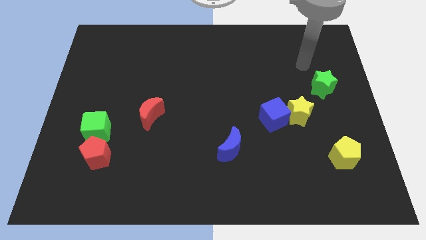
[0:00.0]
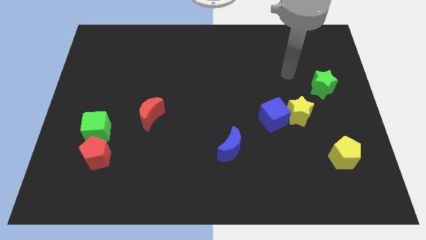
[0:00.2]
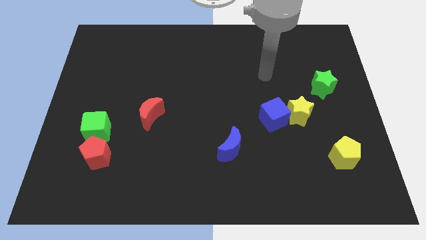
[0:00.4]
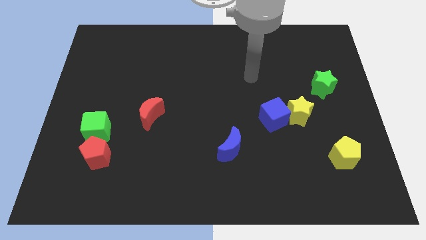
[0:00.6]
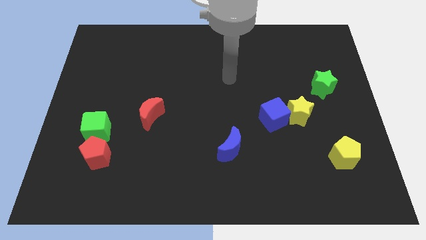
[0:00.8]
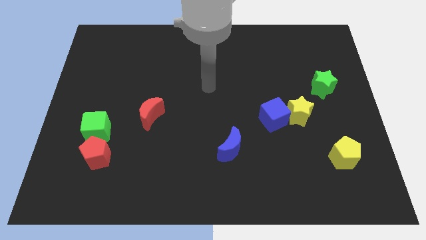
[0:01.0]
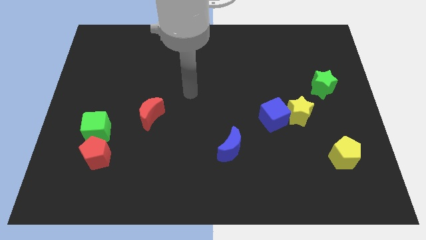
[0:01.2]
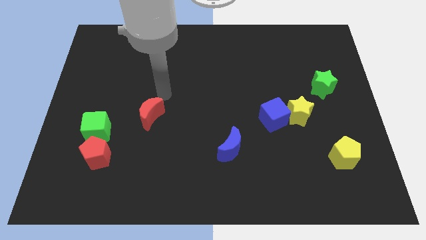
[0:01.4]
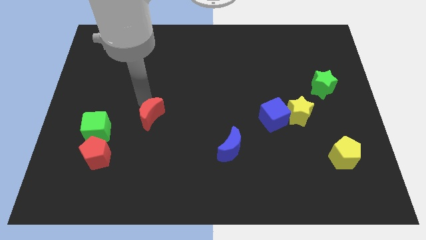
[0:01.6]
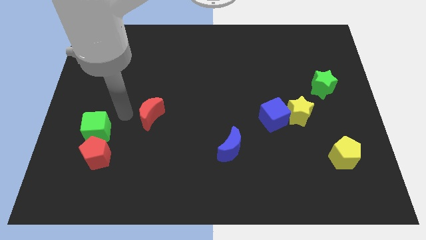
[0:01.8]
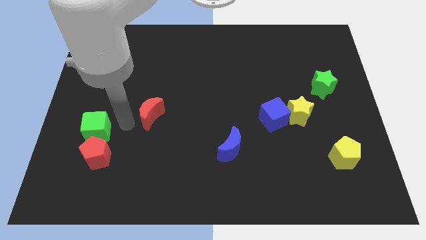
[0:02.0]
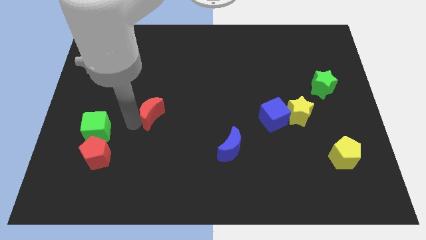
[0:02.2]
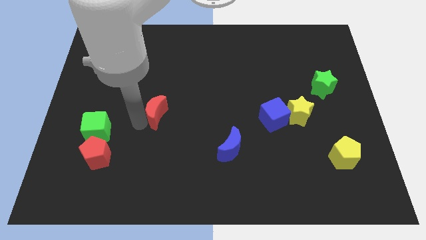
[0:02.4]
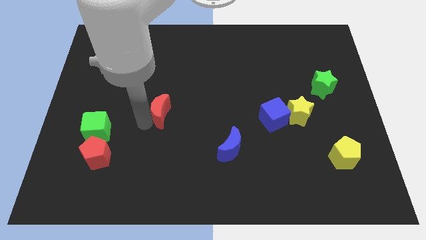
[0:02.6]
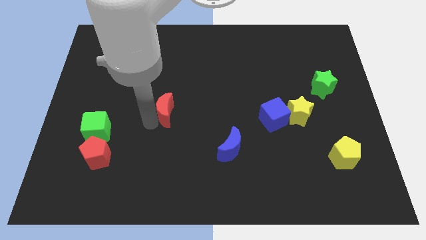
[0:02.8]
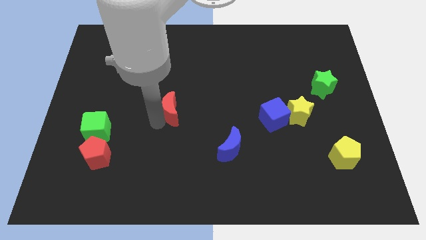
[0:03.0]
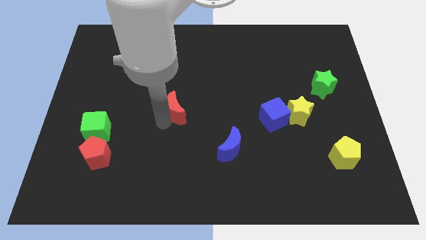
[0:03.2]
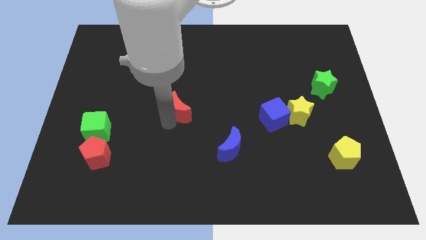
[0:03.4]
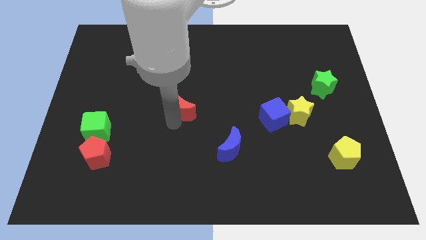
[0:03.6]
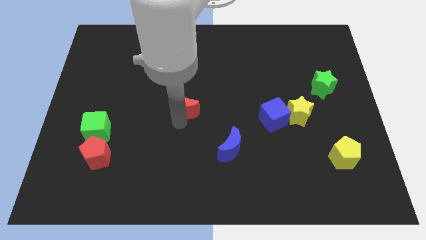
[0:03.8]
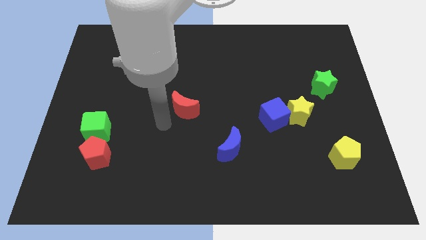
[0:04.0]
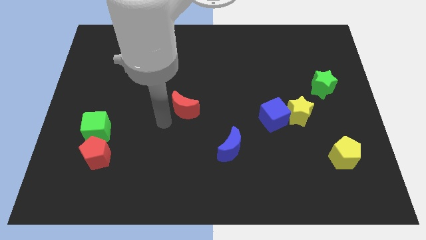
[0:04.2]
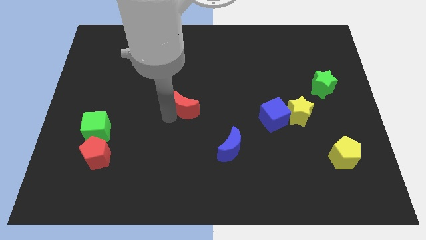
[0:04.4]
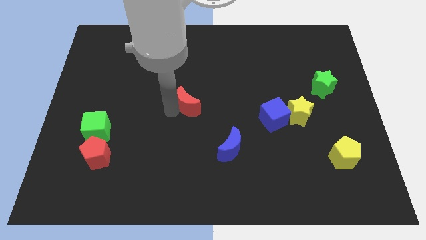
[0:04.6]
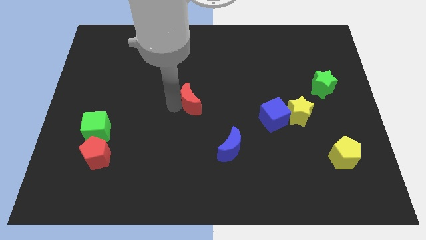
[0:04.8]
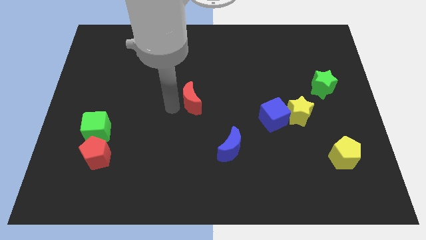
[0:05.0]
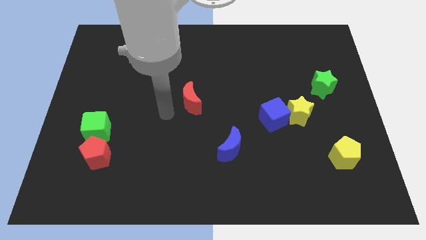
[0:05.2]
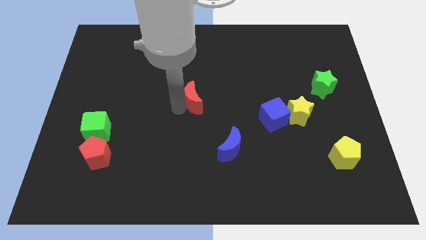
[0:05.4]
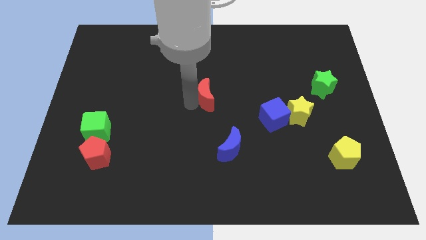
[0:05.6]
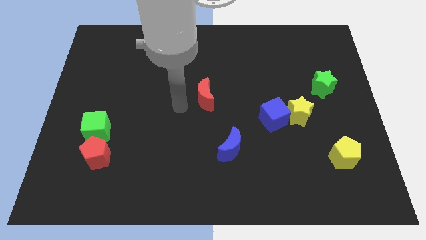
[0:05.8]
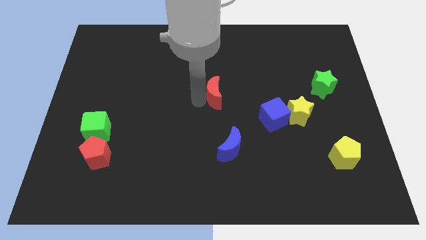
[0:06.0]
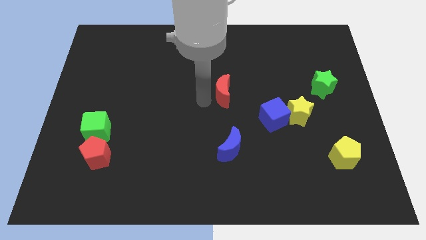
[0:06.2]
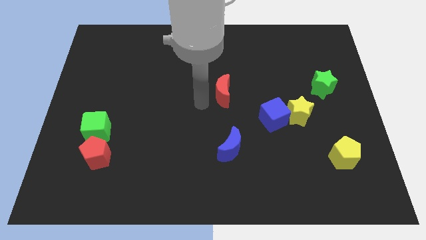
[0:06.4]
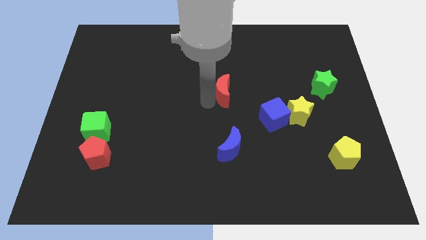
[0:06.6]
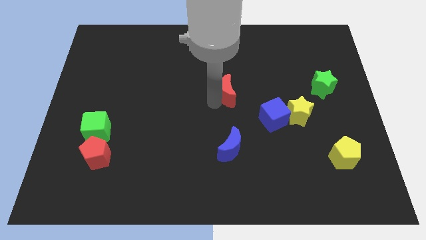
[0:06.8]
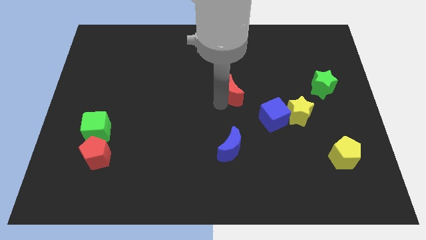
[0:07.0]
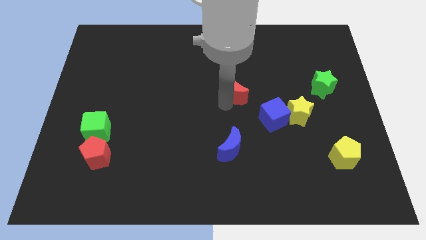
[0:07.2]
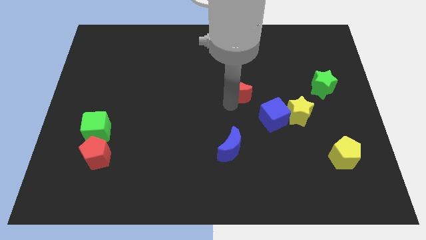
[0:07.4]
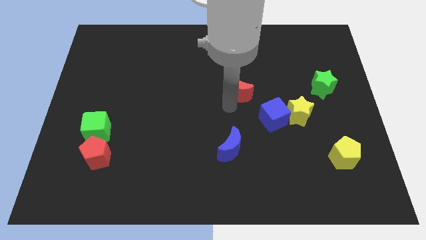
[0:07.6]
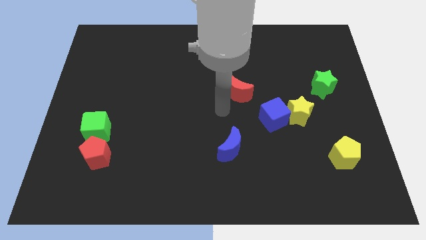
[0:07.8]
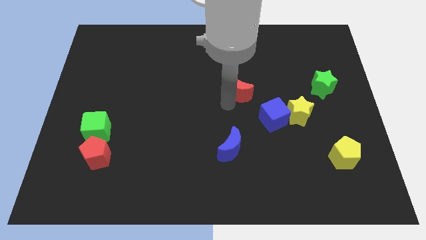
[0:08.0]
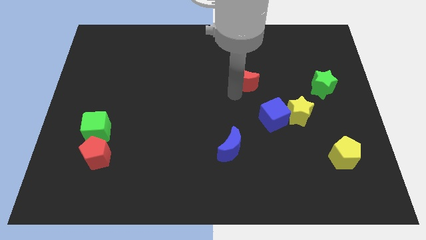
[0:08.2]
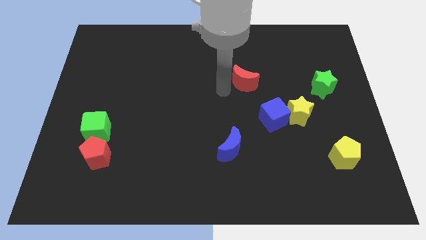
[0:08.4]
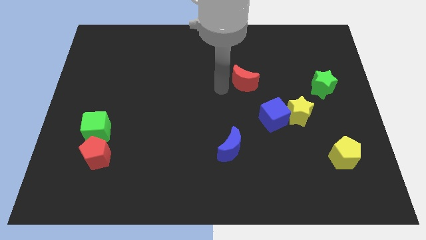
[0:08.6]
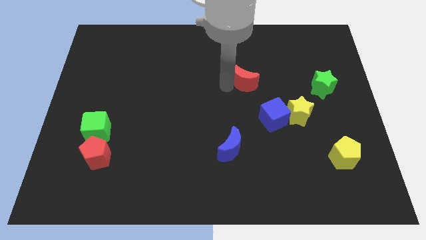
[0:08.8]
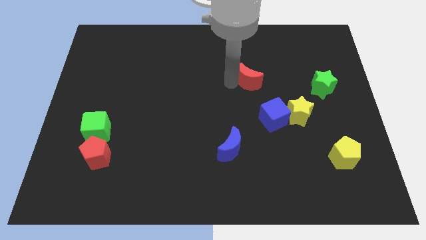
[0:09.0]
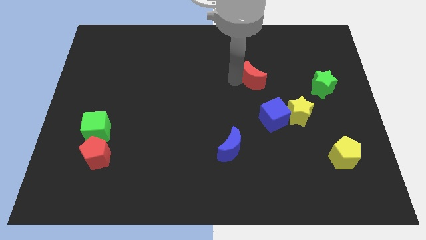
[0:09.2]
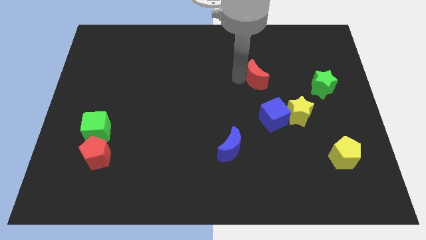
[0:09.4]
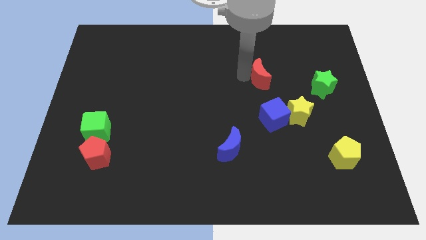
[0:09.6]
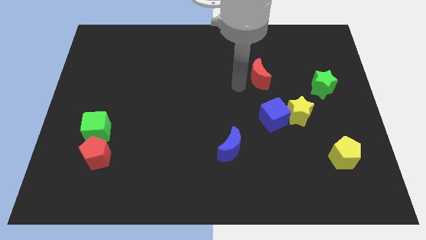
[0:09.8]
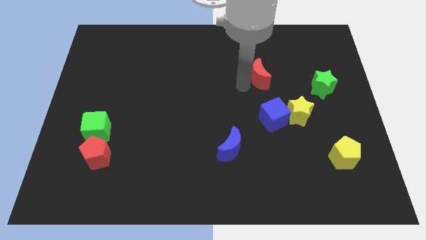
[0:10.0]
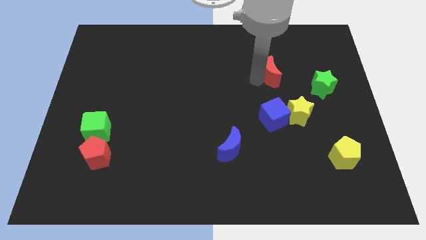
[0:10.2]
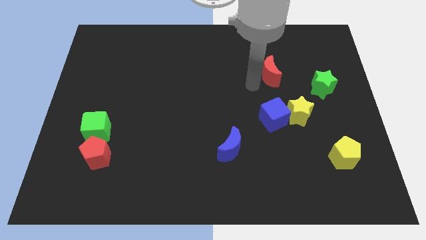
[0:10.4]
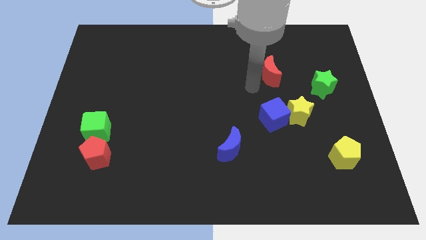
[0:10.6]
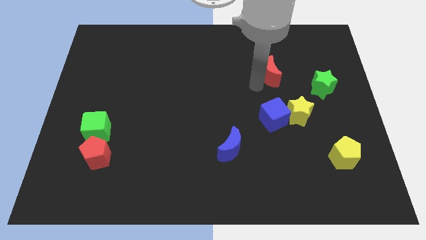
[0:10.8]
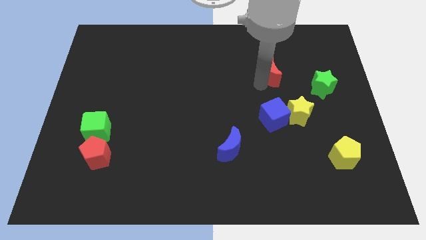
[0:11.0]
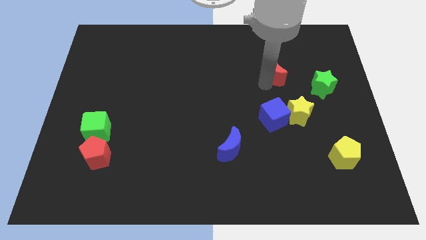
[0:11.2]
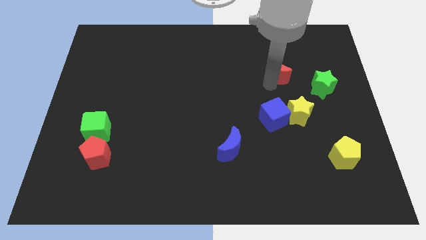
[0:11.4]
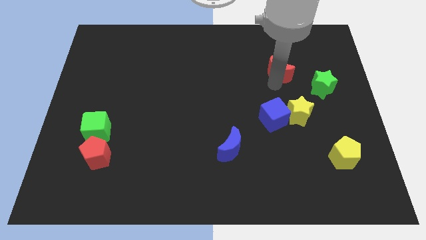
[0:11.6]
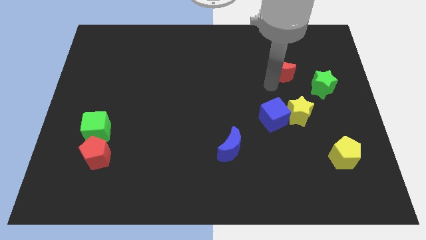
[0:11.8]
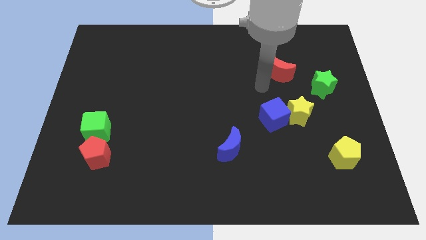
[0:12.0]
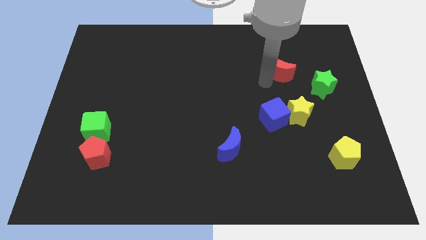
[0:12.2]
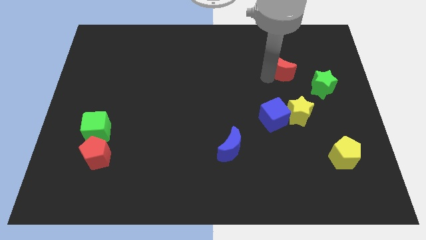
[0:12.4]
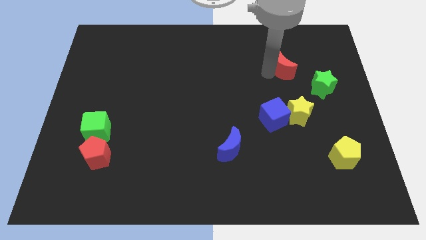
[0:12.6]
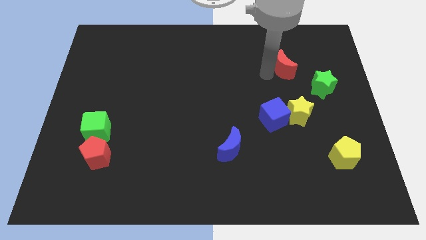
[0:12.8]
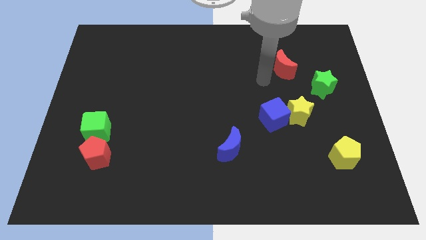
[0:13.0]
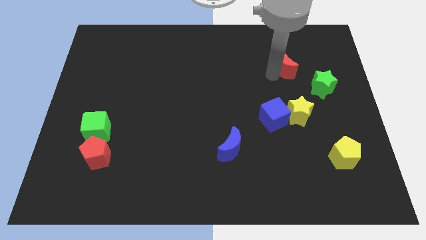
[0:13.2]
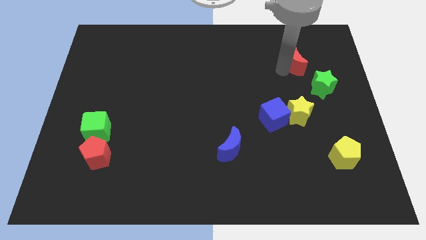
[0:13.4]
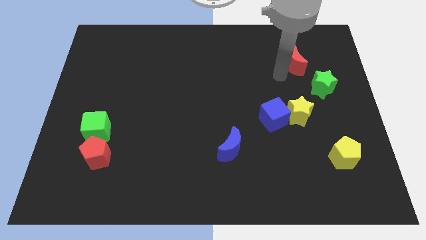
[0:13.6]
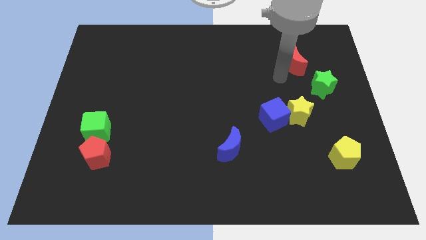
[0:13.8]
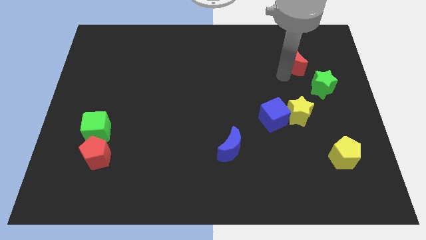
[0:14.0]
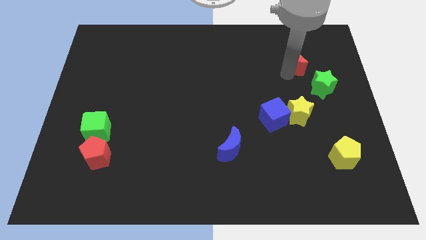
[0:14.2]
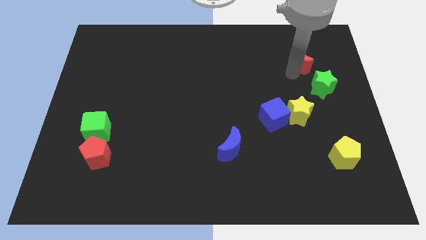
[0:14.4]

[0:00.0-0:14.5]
slide the red moon to the top side of the green star
